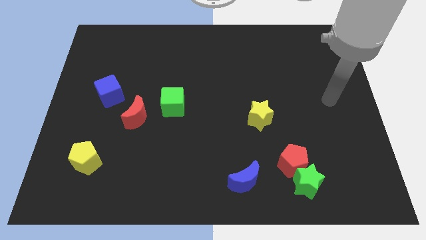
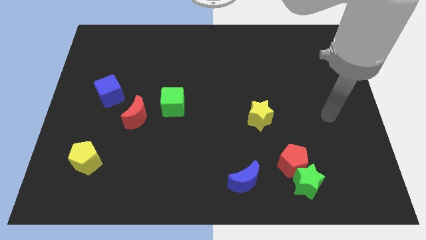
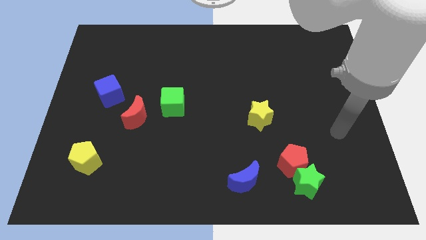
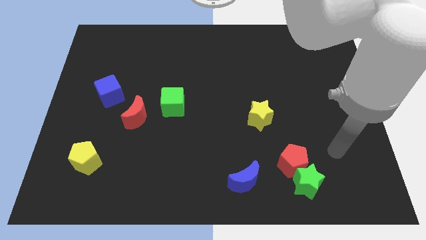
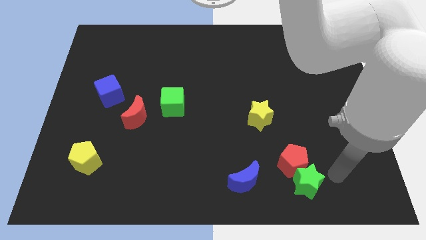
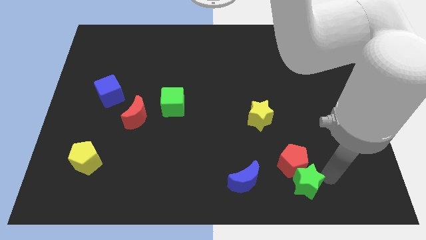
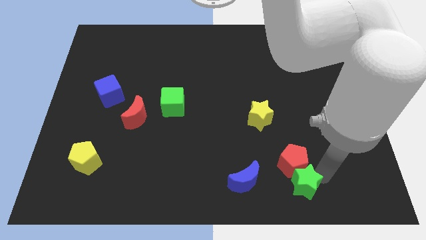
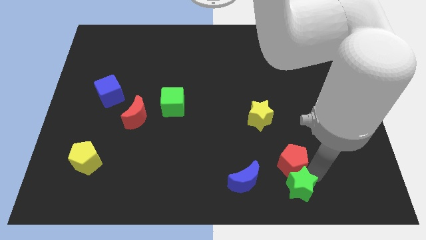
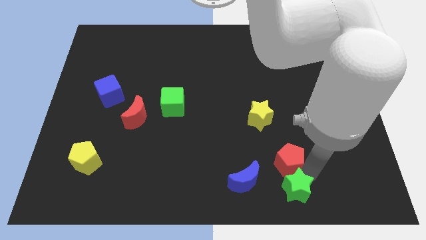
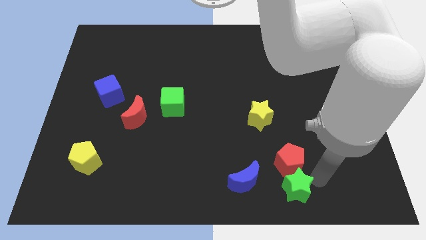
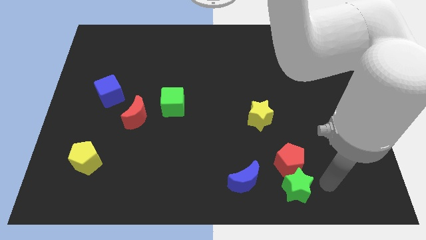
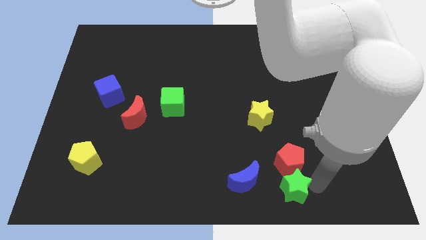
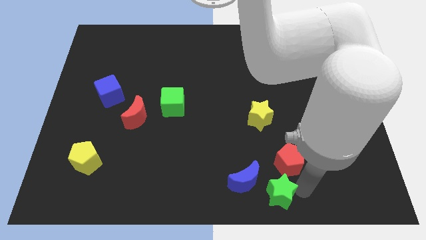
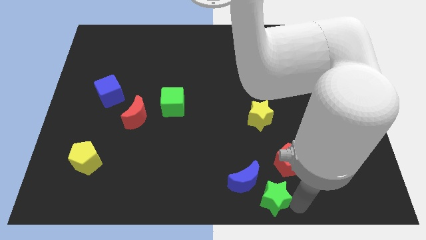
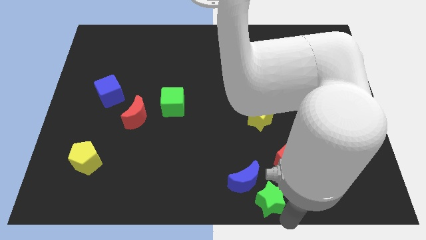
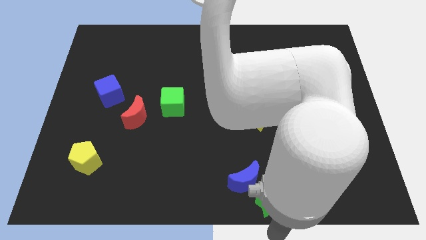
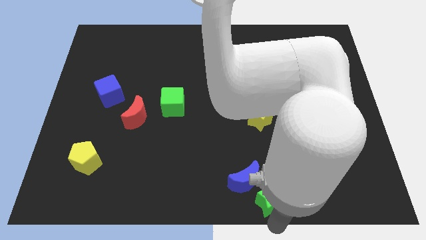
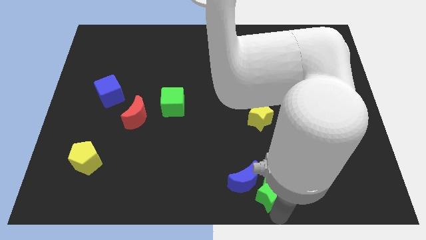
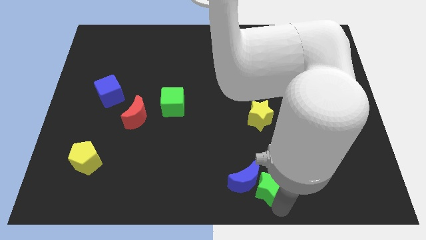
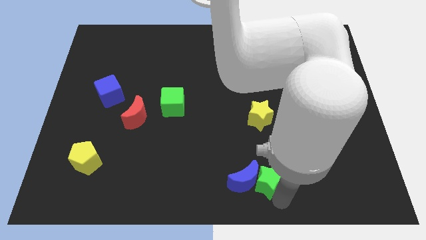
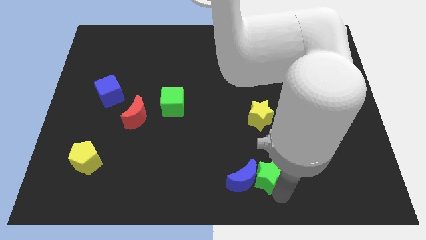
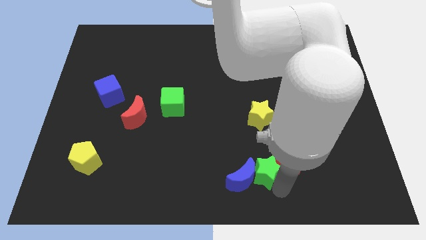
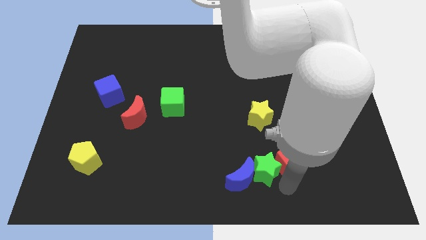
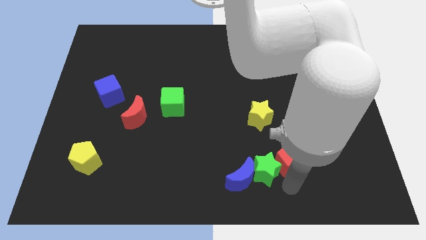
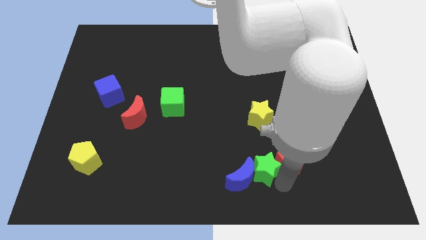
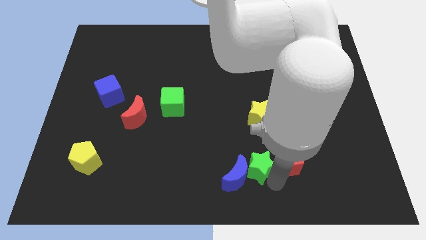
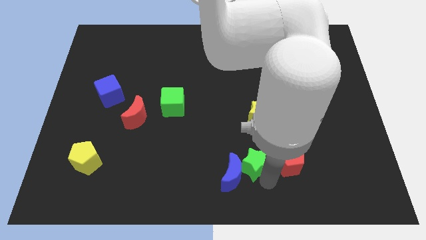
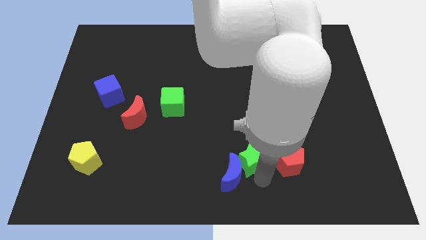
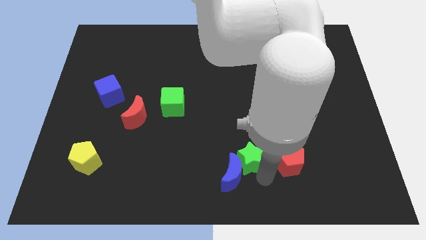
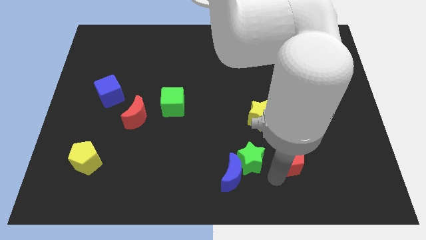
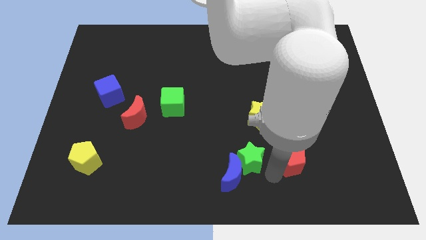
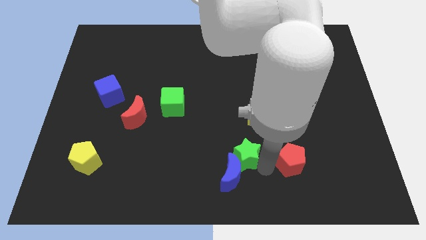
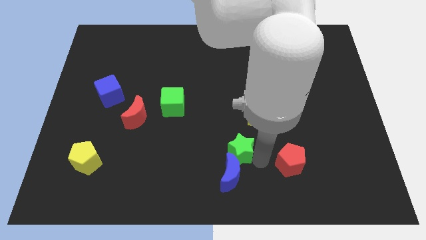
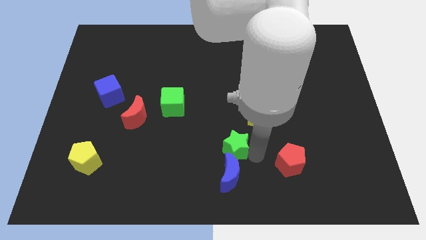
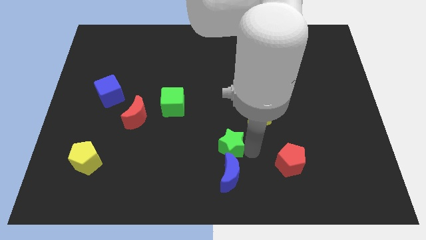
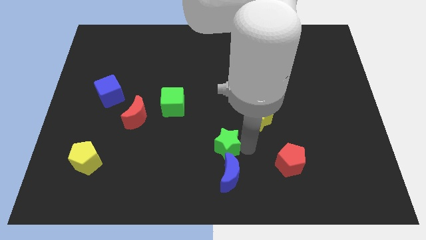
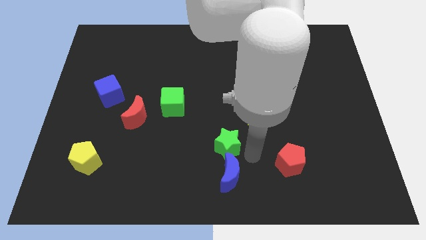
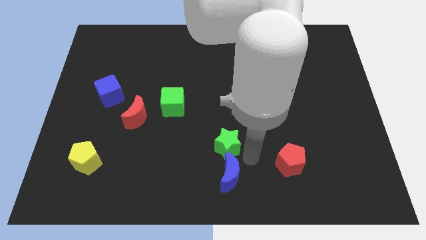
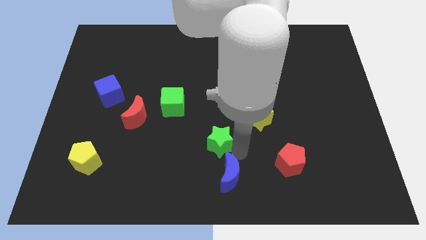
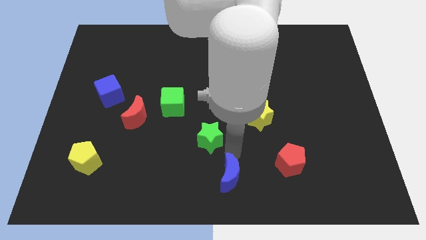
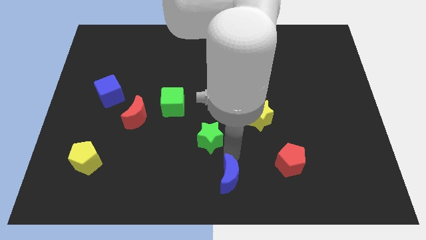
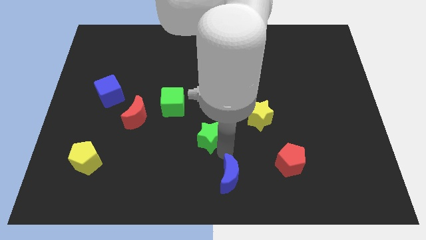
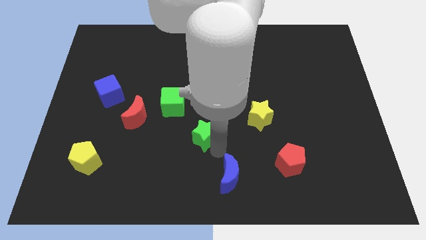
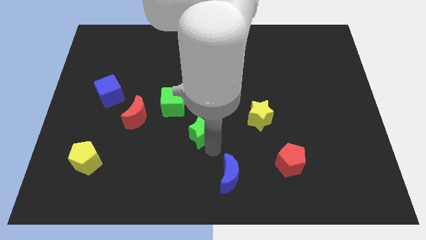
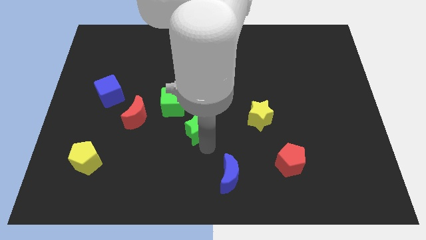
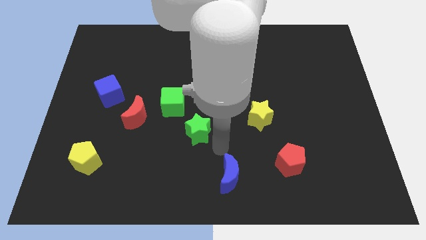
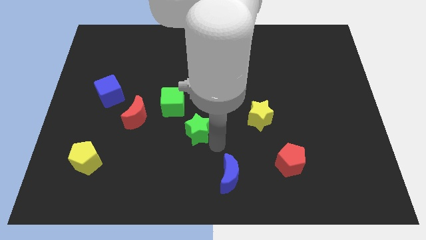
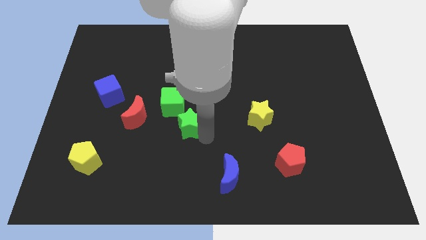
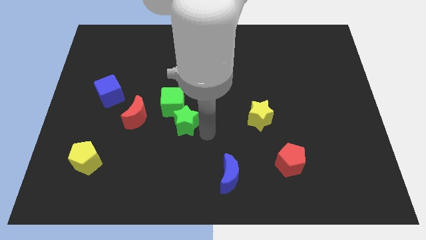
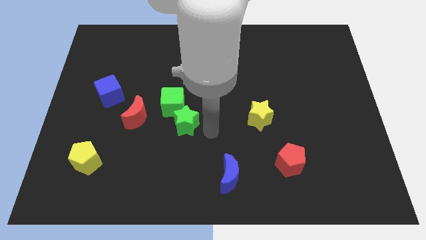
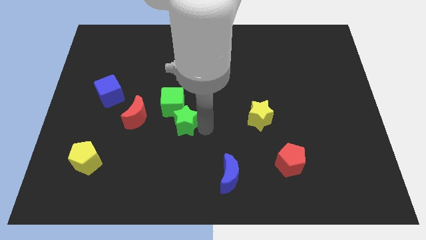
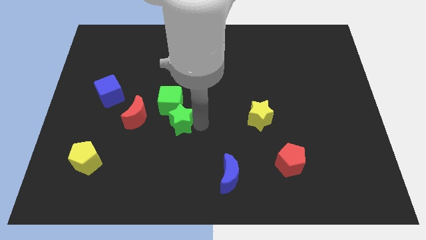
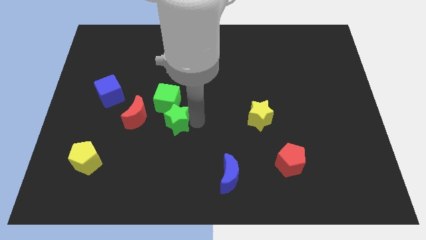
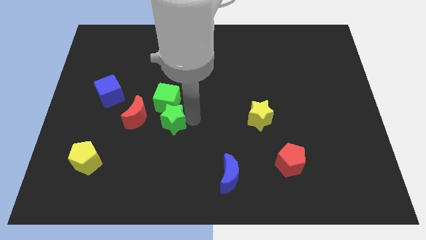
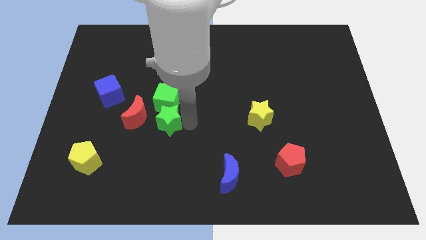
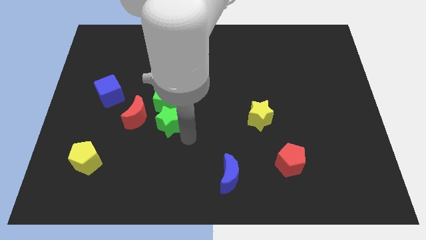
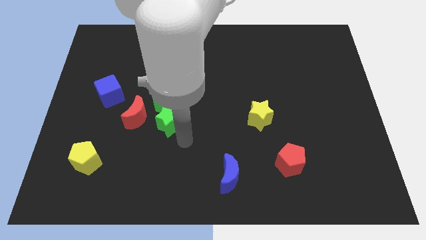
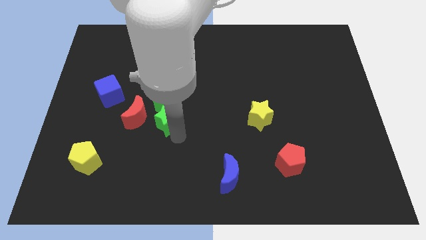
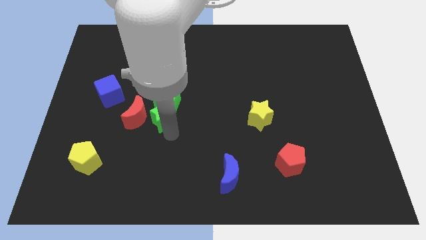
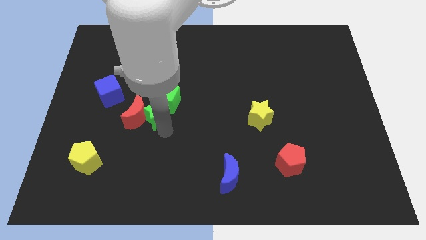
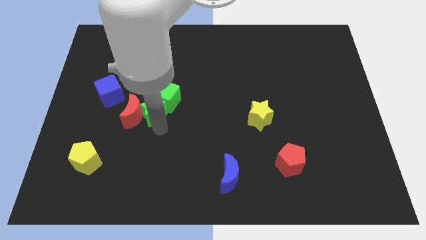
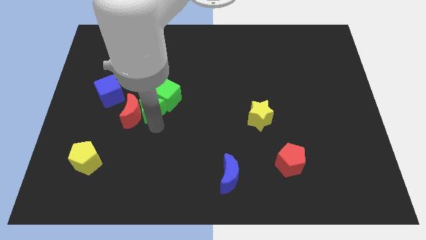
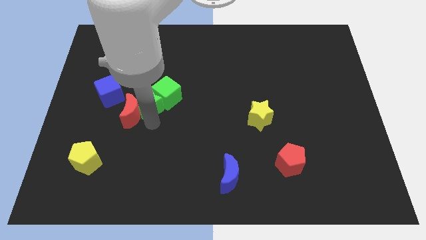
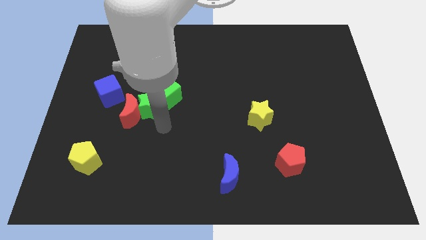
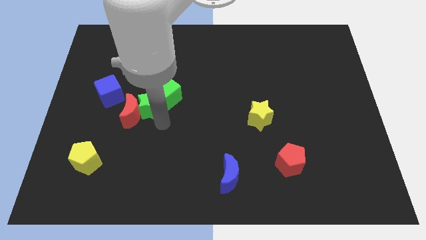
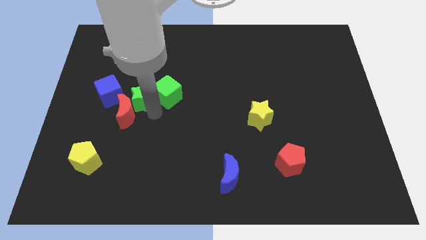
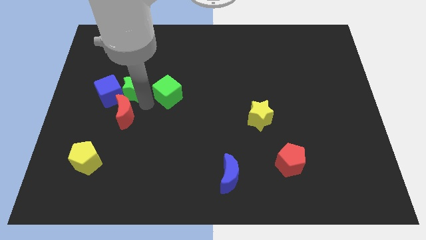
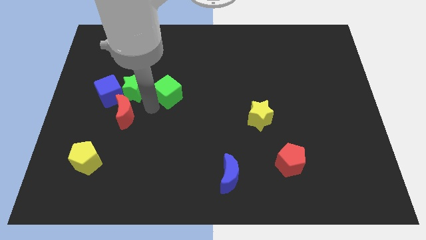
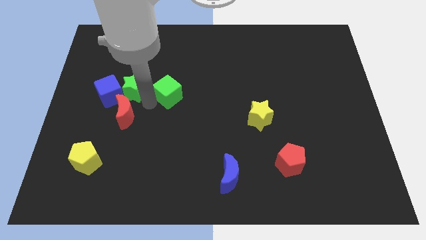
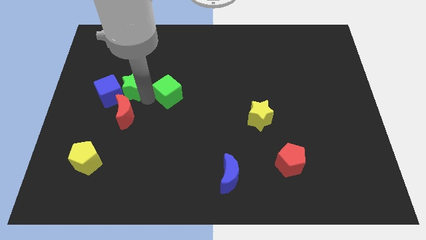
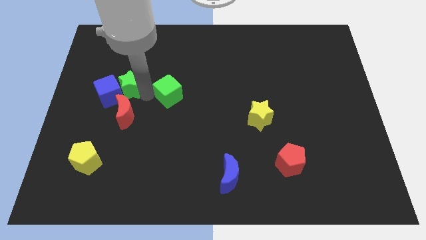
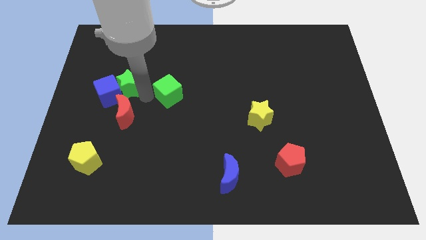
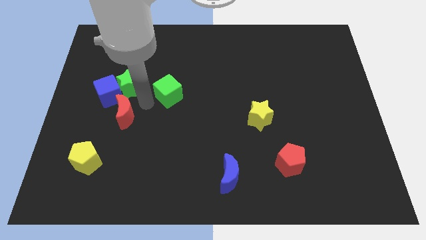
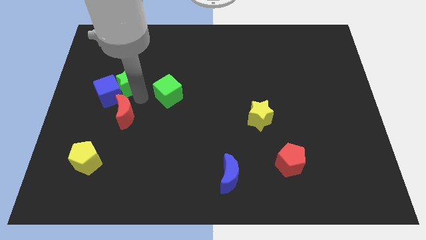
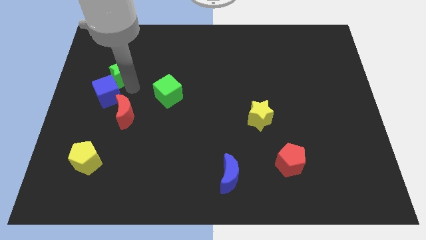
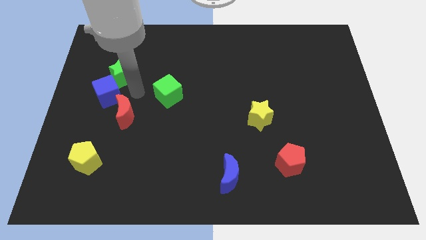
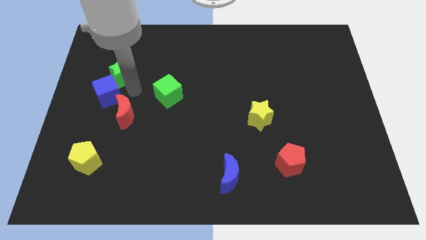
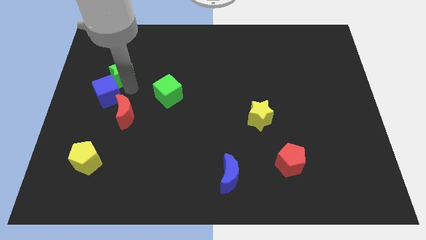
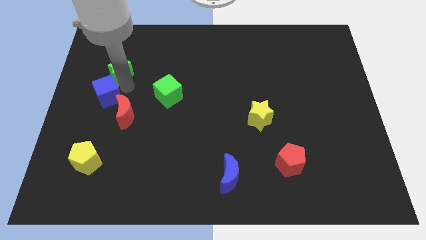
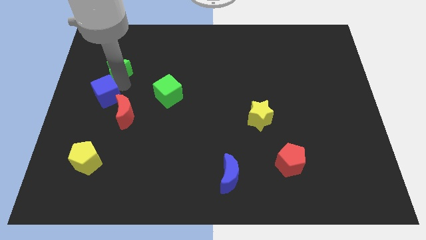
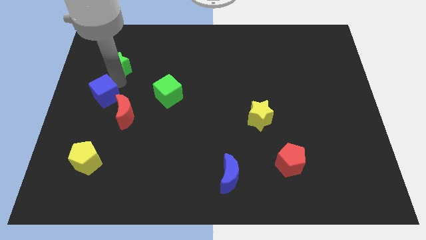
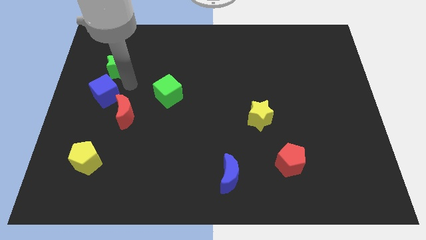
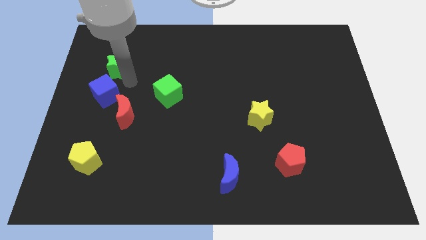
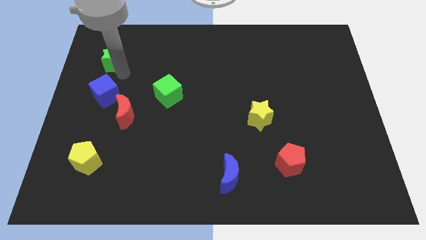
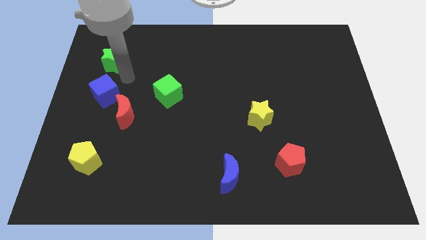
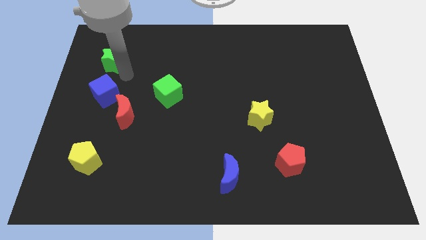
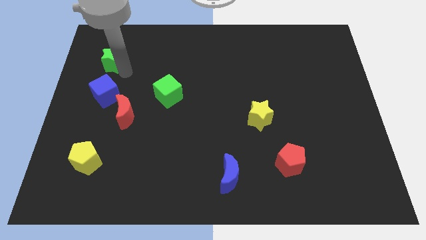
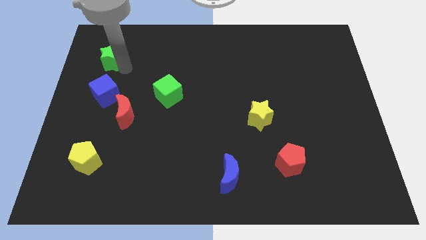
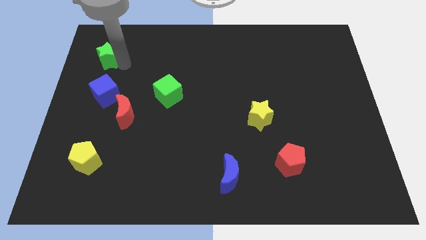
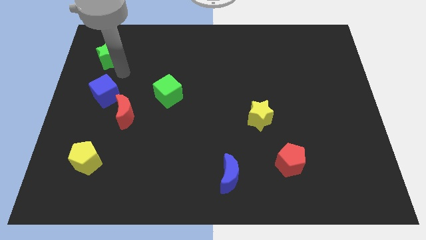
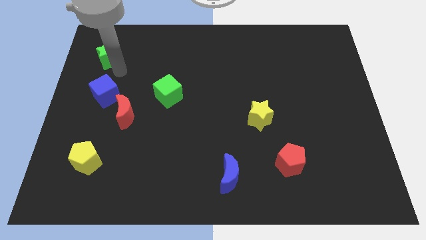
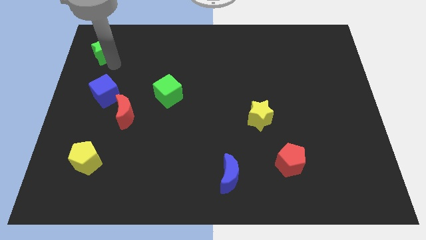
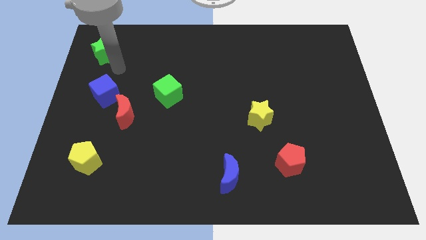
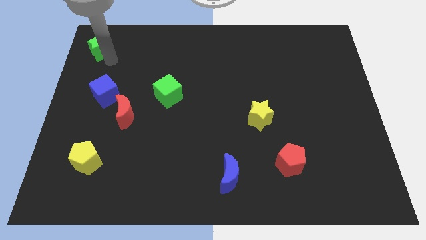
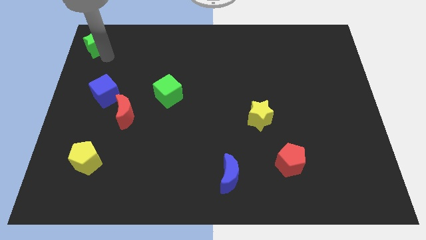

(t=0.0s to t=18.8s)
put the green star to the top left of the board
